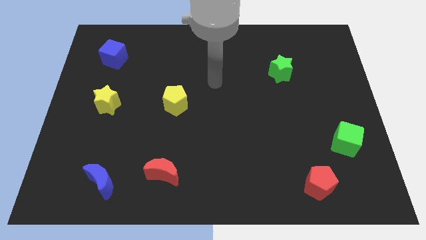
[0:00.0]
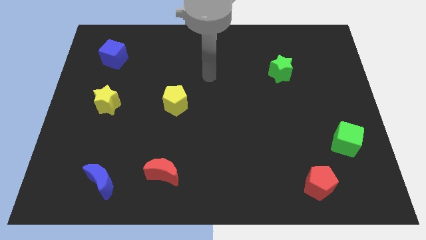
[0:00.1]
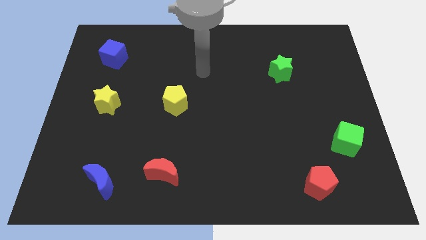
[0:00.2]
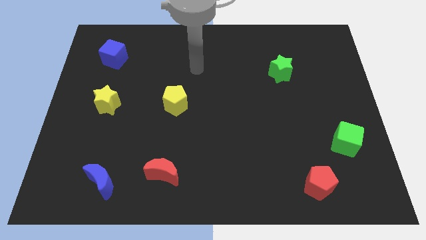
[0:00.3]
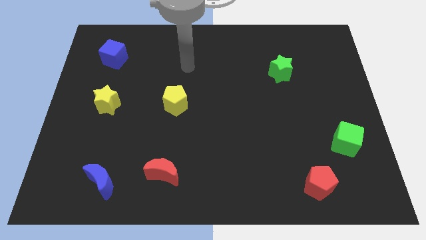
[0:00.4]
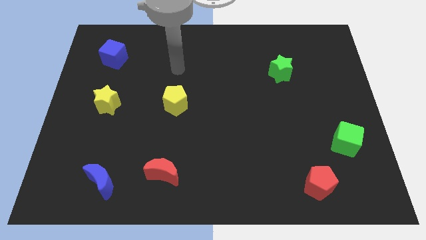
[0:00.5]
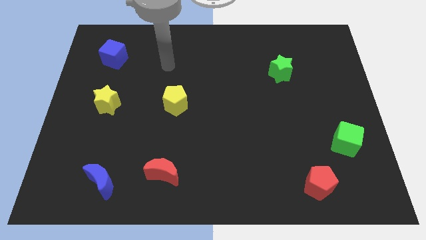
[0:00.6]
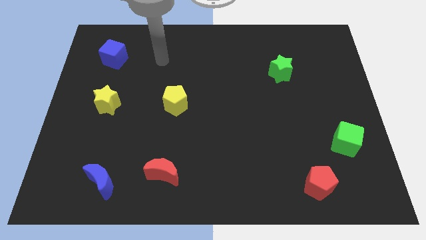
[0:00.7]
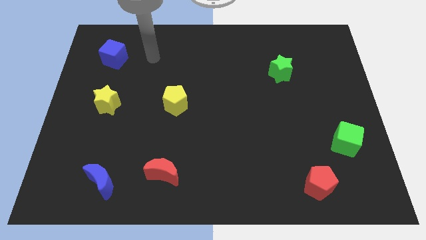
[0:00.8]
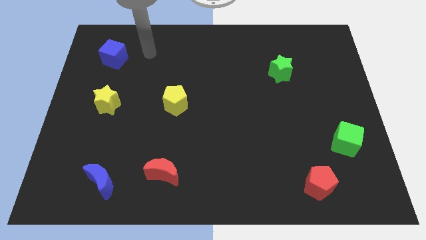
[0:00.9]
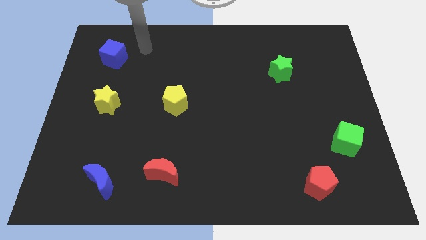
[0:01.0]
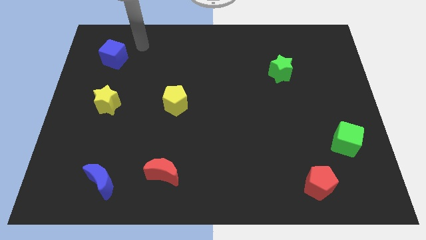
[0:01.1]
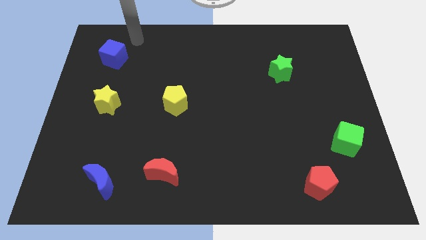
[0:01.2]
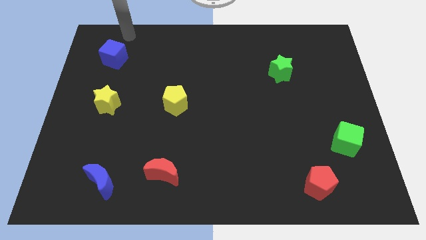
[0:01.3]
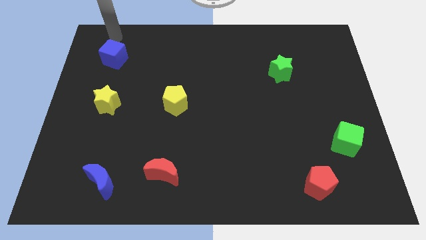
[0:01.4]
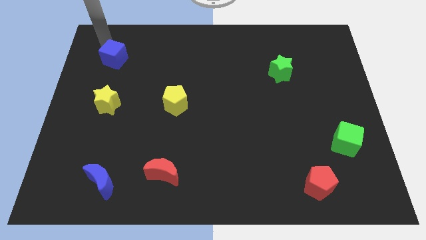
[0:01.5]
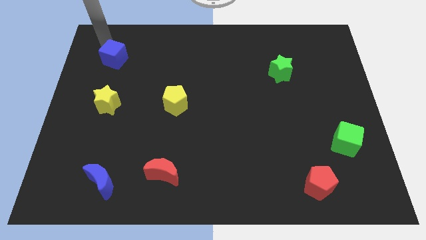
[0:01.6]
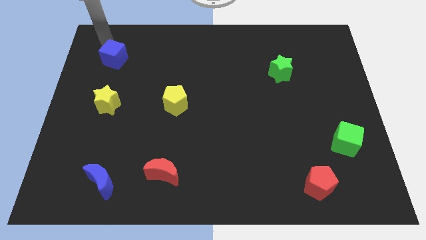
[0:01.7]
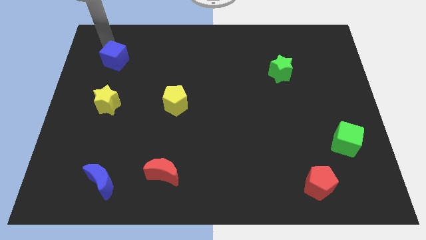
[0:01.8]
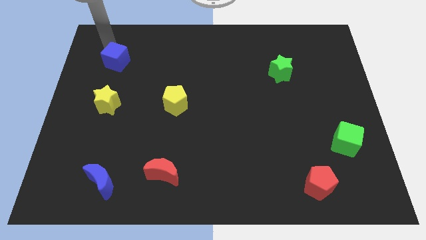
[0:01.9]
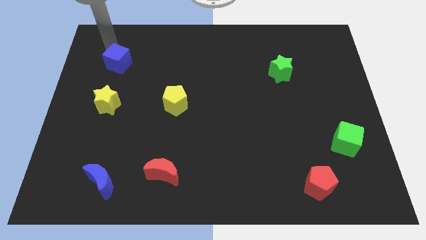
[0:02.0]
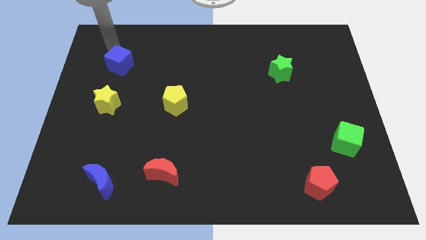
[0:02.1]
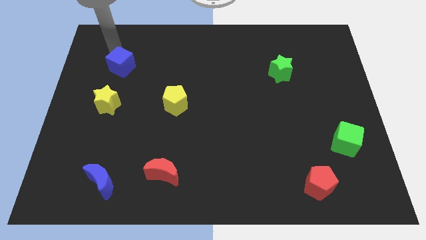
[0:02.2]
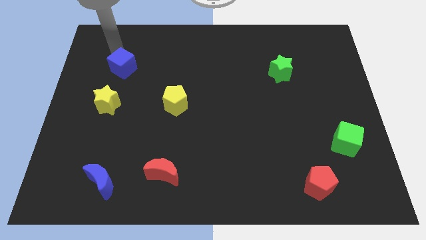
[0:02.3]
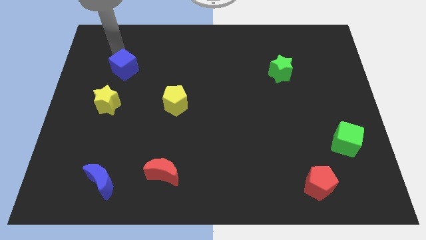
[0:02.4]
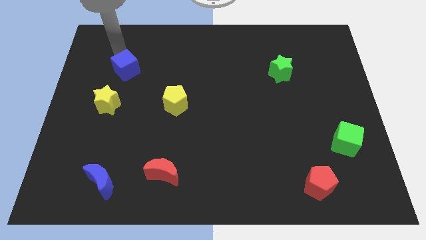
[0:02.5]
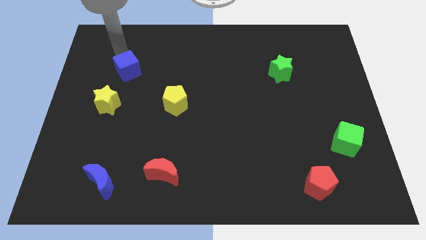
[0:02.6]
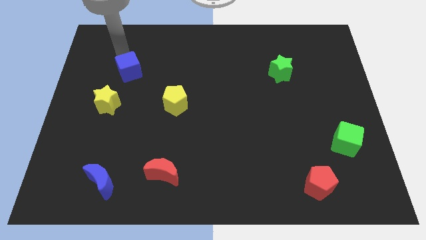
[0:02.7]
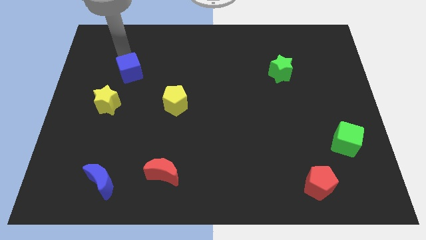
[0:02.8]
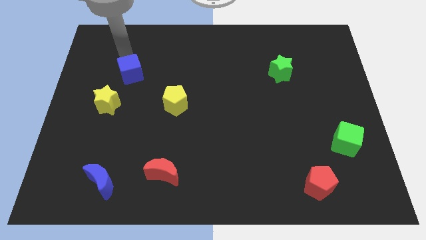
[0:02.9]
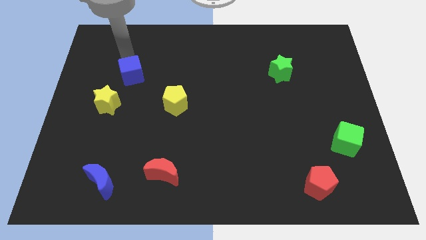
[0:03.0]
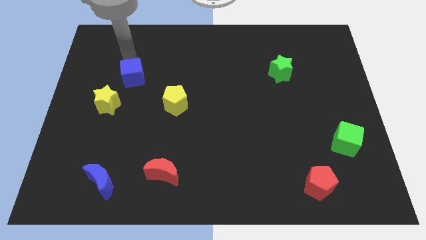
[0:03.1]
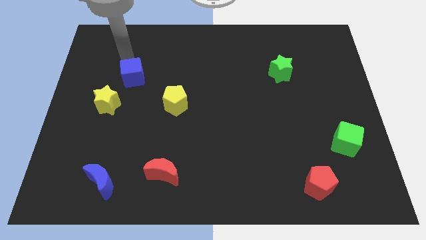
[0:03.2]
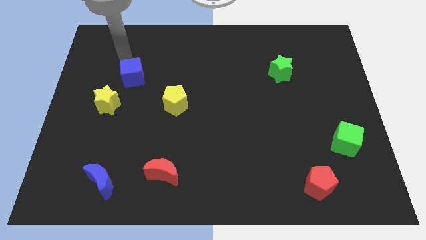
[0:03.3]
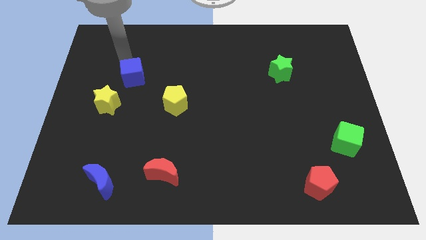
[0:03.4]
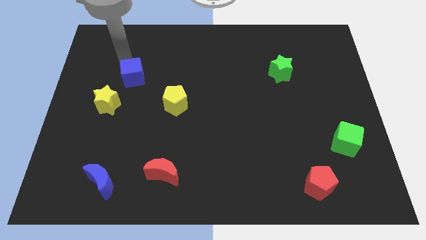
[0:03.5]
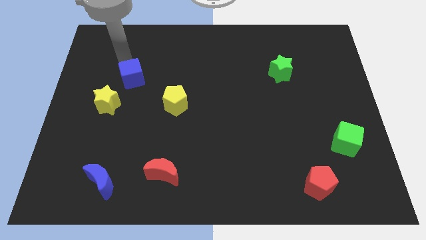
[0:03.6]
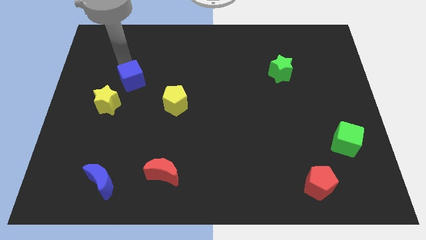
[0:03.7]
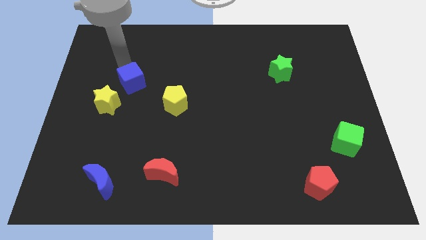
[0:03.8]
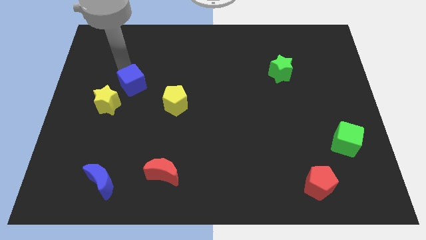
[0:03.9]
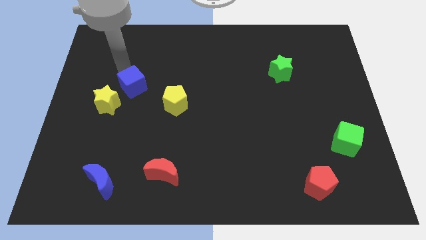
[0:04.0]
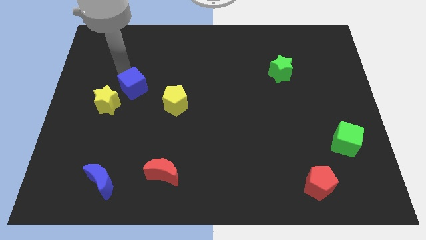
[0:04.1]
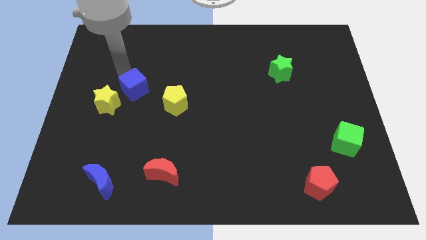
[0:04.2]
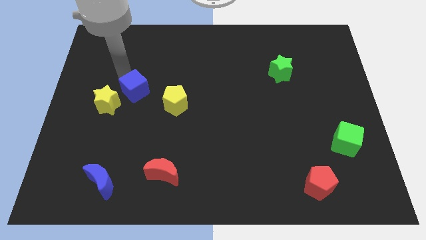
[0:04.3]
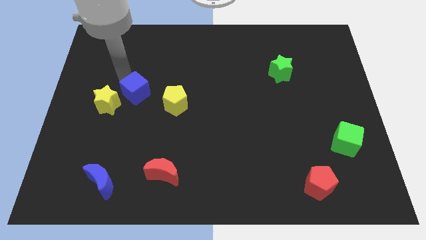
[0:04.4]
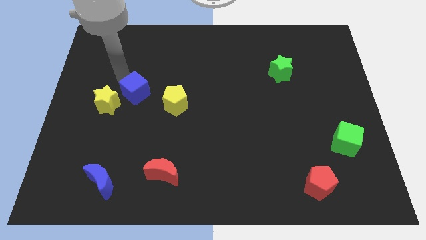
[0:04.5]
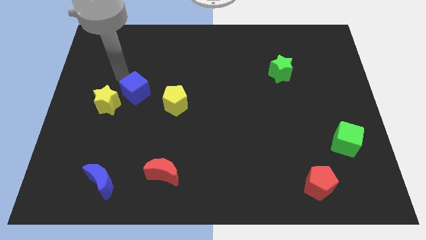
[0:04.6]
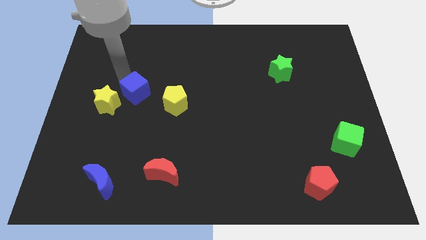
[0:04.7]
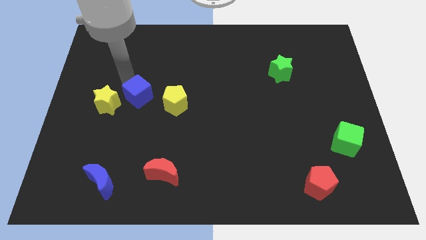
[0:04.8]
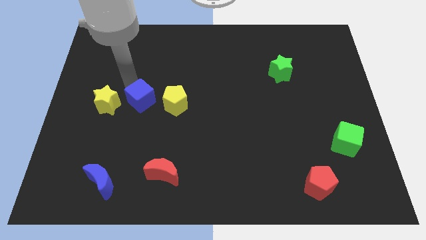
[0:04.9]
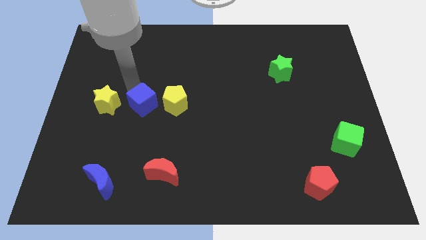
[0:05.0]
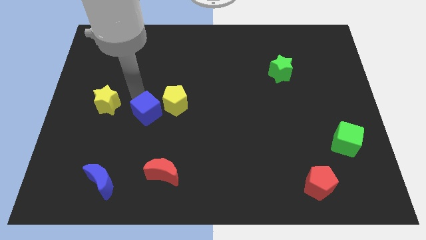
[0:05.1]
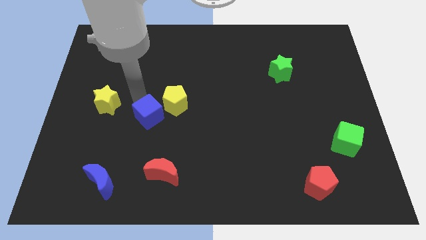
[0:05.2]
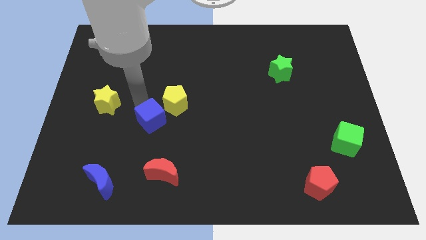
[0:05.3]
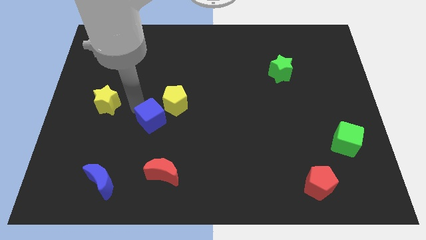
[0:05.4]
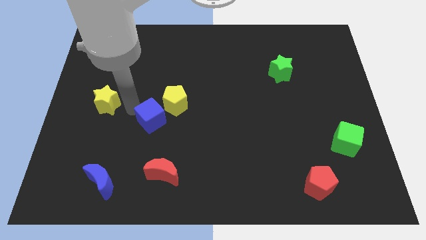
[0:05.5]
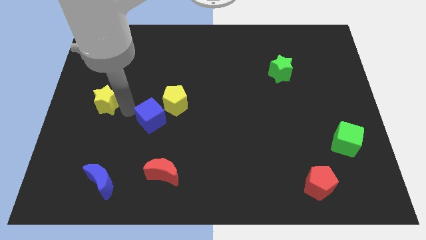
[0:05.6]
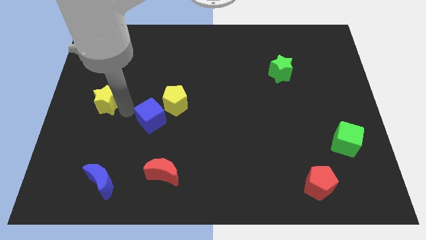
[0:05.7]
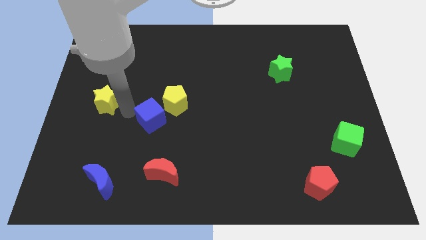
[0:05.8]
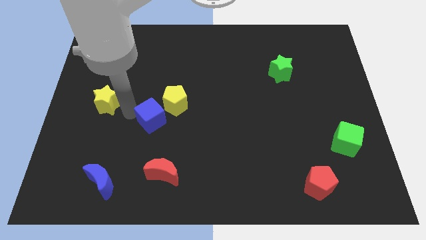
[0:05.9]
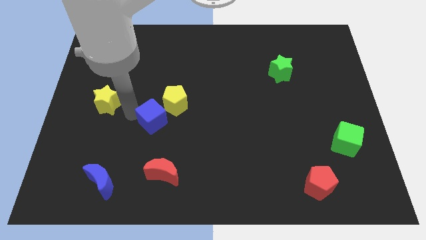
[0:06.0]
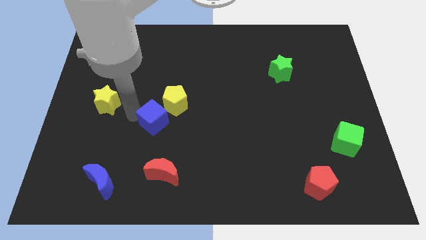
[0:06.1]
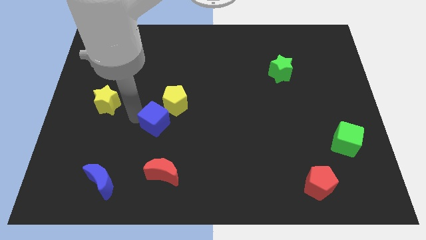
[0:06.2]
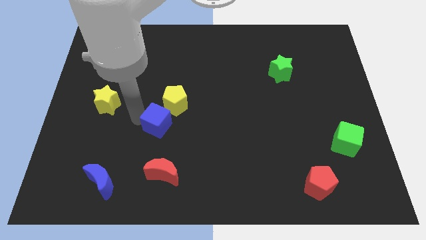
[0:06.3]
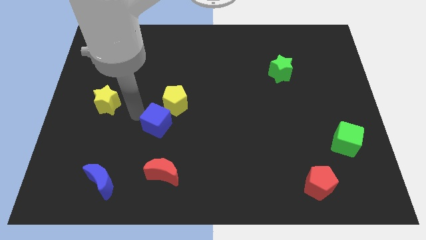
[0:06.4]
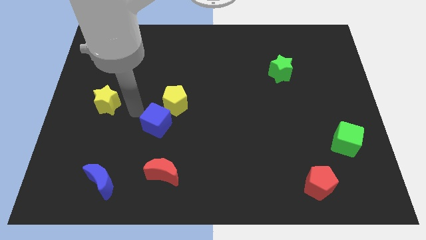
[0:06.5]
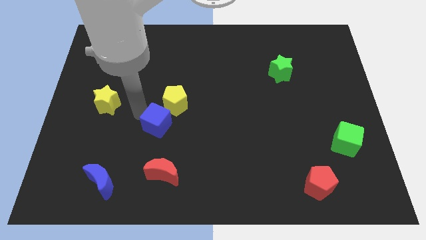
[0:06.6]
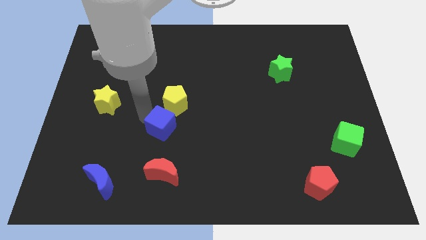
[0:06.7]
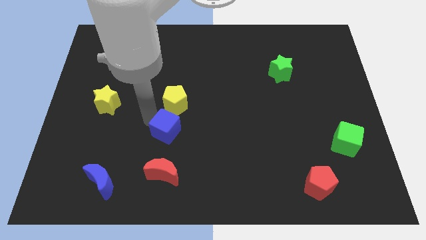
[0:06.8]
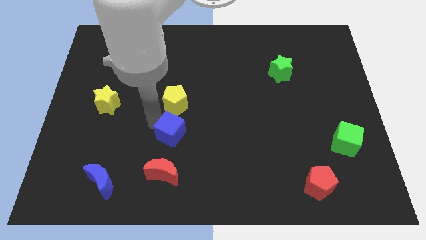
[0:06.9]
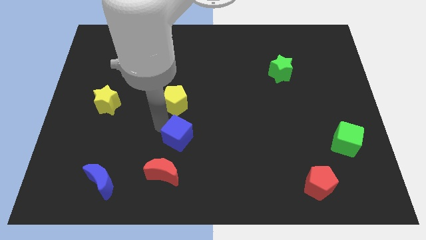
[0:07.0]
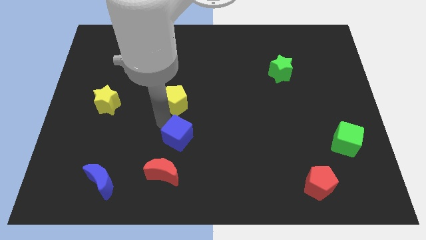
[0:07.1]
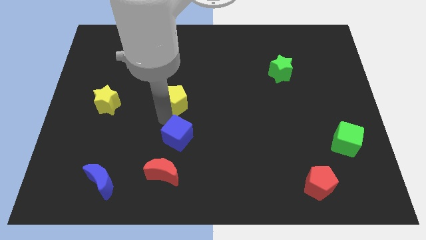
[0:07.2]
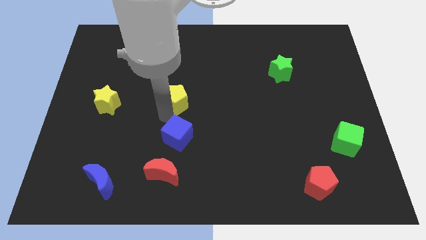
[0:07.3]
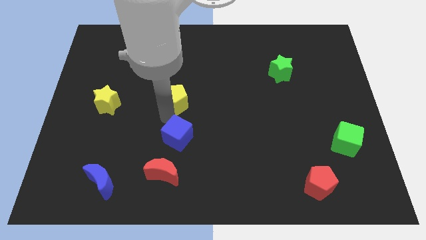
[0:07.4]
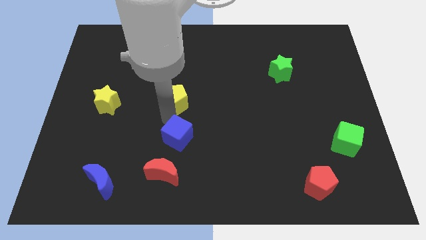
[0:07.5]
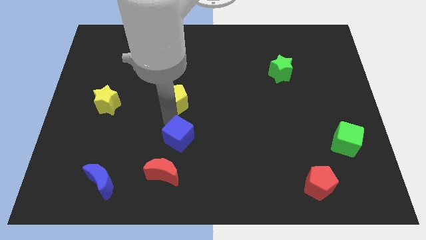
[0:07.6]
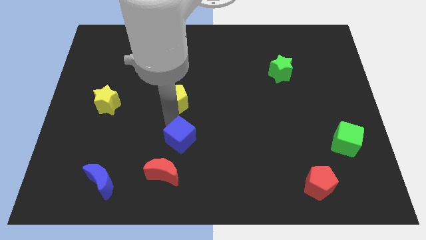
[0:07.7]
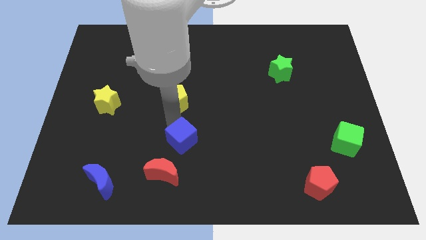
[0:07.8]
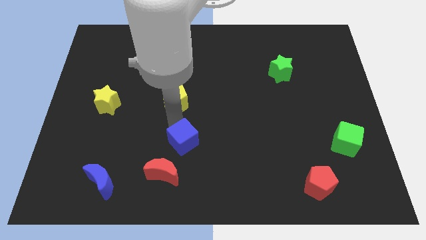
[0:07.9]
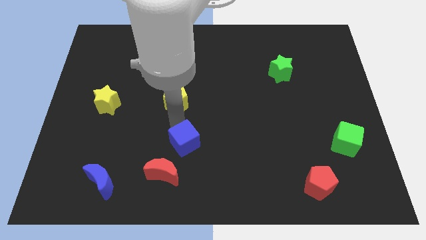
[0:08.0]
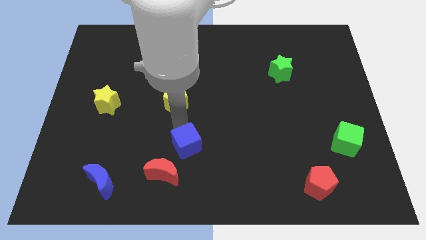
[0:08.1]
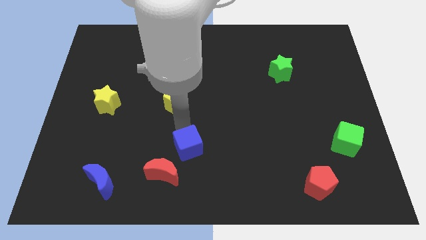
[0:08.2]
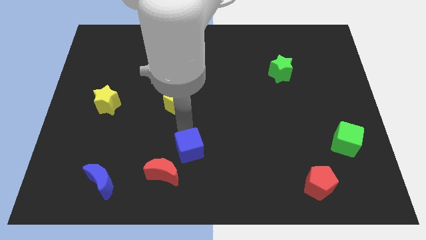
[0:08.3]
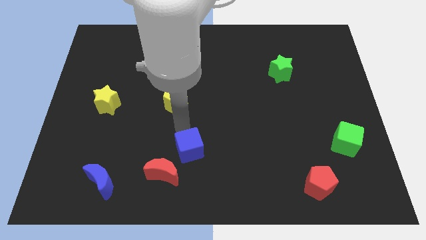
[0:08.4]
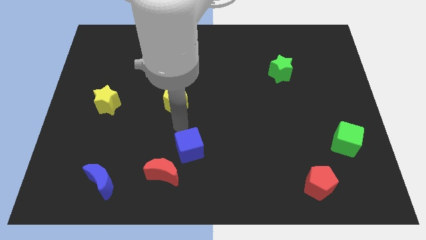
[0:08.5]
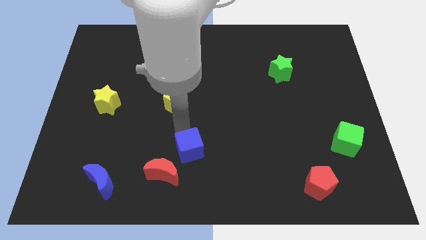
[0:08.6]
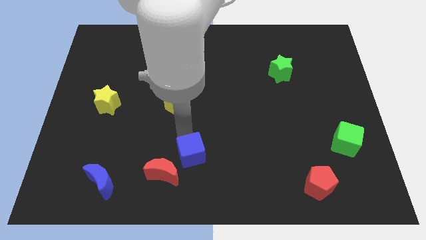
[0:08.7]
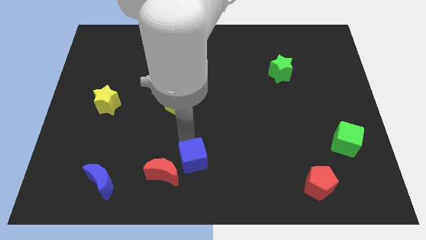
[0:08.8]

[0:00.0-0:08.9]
put the blue cube to the bottom
